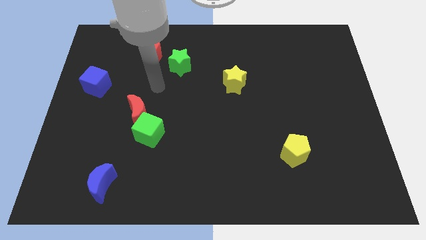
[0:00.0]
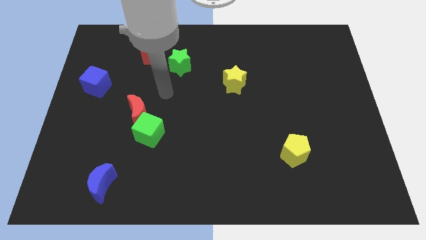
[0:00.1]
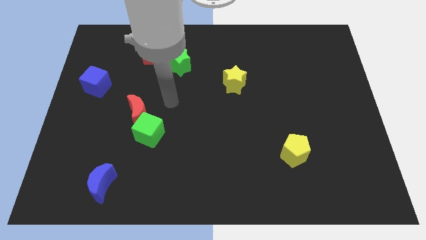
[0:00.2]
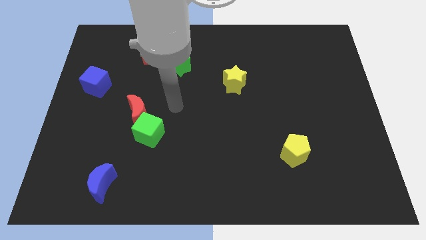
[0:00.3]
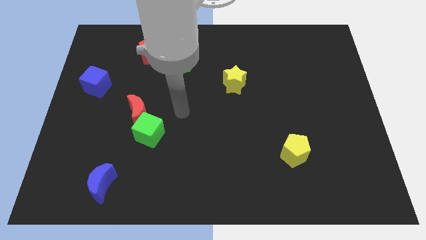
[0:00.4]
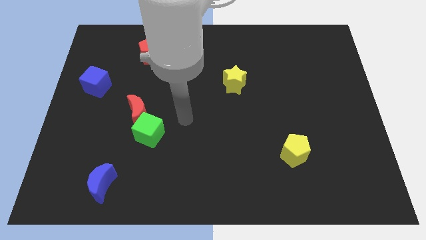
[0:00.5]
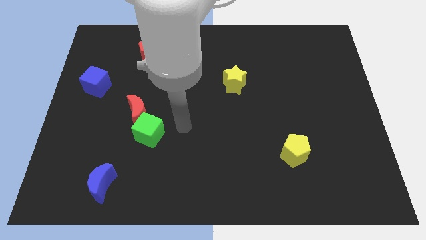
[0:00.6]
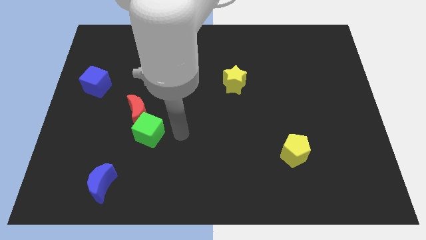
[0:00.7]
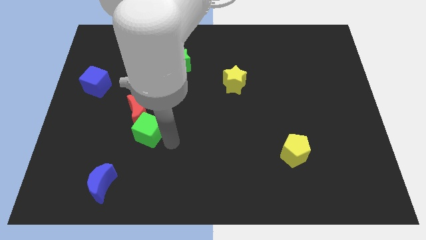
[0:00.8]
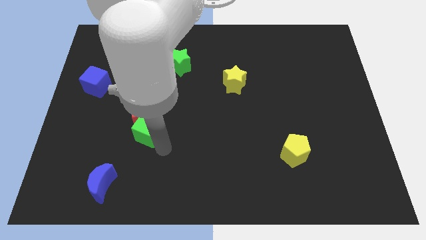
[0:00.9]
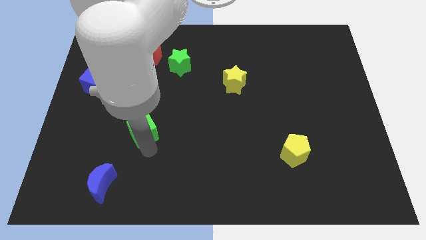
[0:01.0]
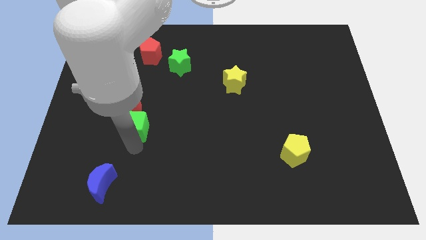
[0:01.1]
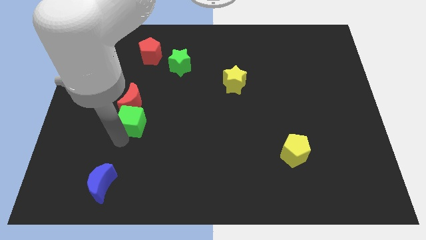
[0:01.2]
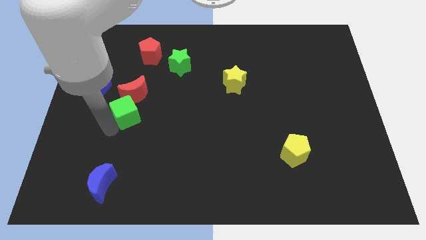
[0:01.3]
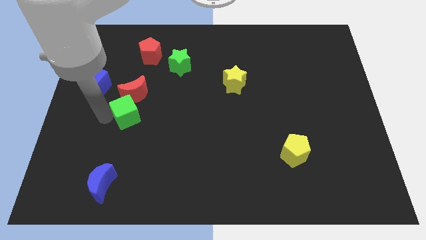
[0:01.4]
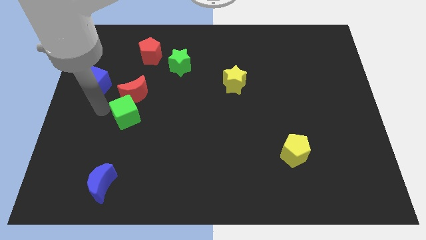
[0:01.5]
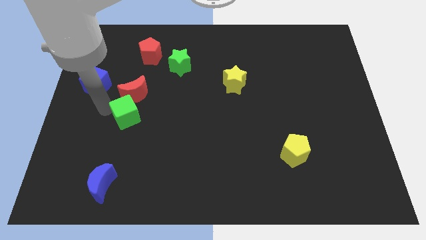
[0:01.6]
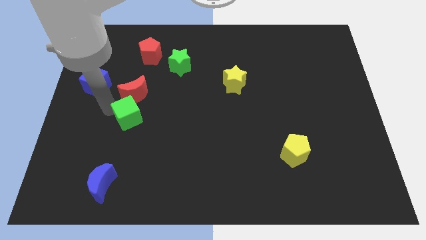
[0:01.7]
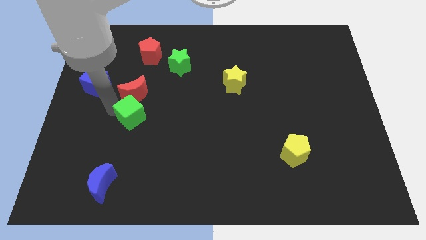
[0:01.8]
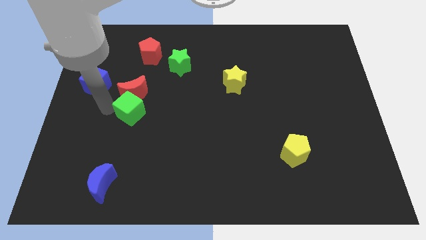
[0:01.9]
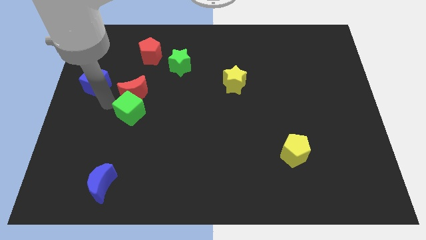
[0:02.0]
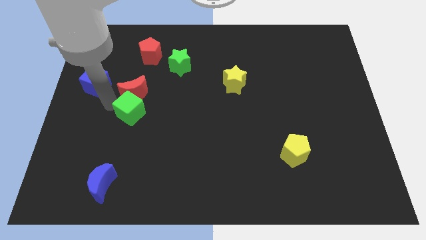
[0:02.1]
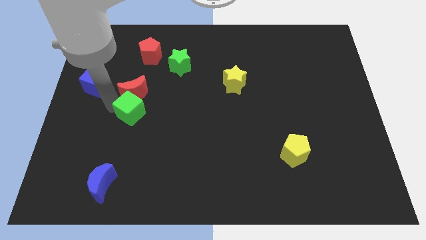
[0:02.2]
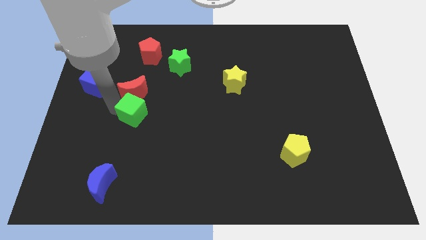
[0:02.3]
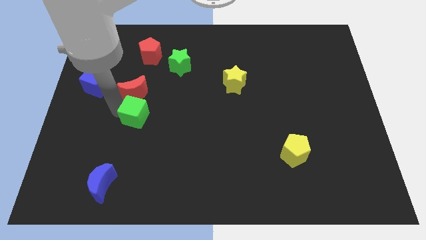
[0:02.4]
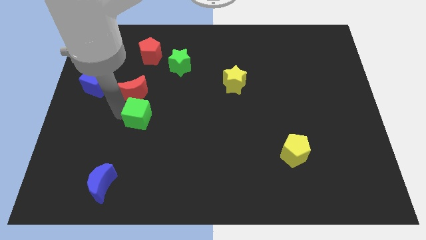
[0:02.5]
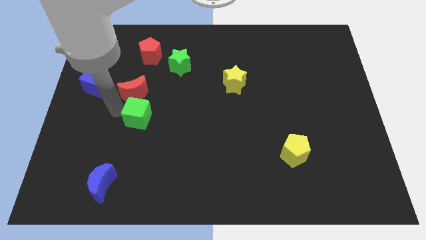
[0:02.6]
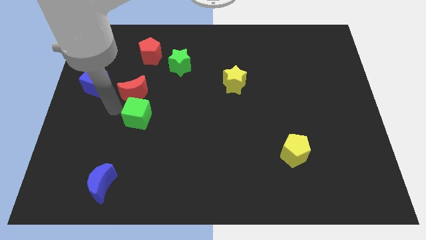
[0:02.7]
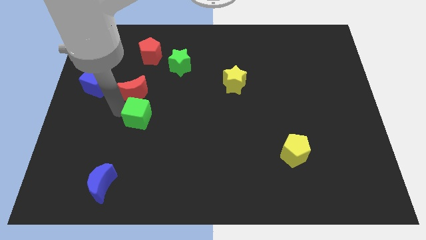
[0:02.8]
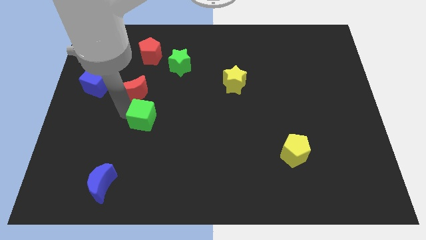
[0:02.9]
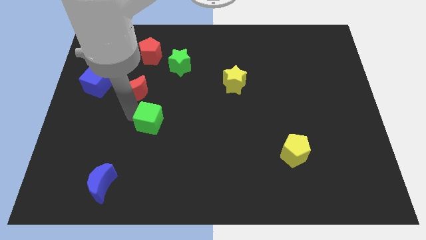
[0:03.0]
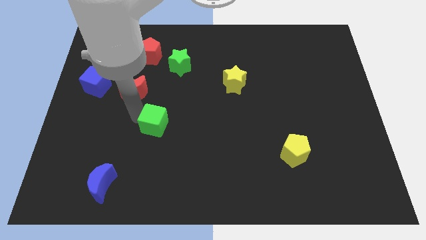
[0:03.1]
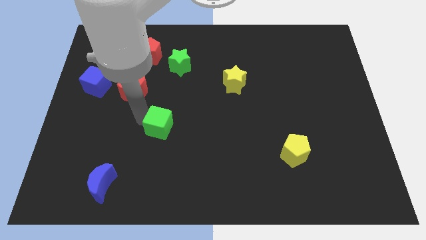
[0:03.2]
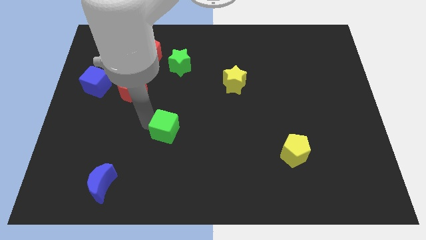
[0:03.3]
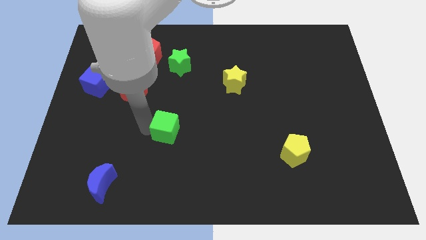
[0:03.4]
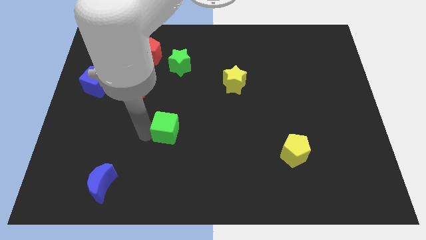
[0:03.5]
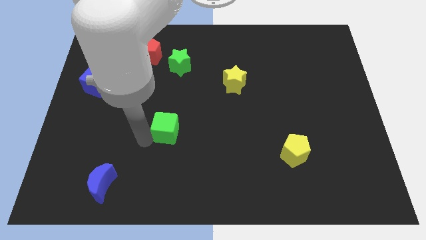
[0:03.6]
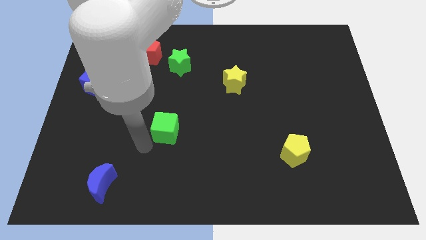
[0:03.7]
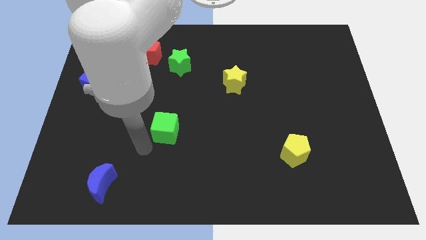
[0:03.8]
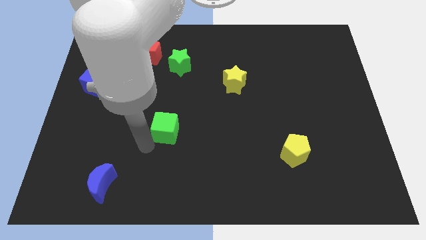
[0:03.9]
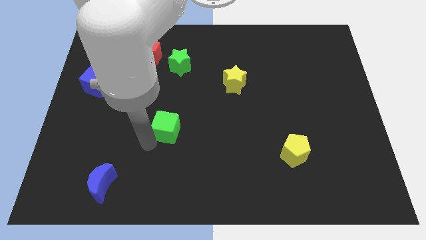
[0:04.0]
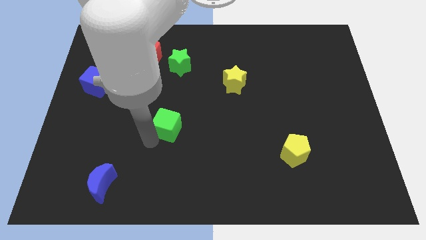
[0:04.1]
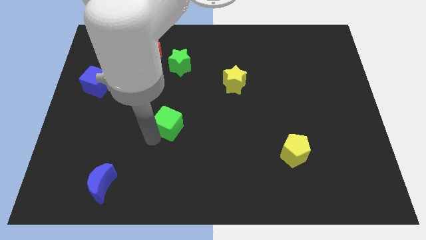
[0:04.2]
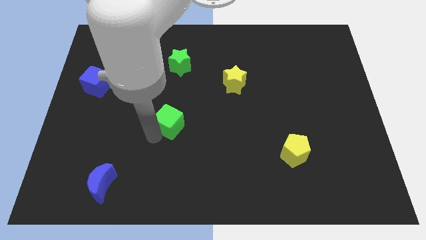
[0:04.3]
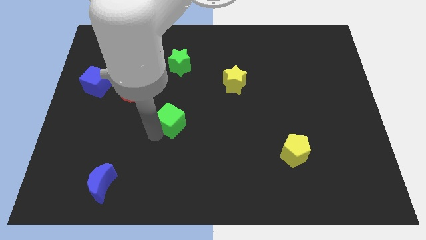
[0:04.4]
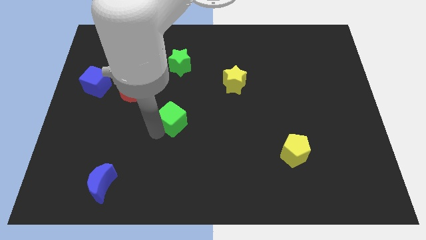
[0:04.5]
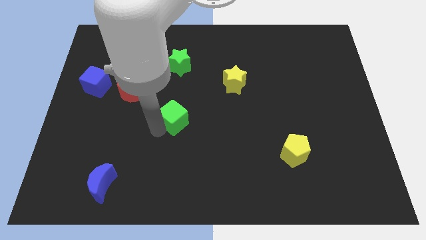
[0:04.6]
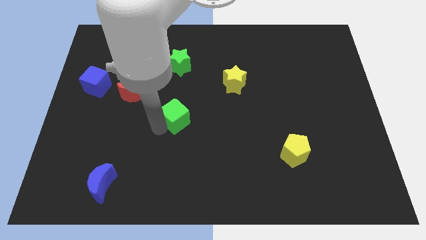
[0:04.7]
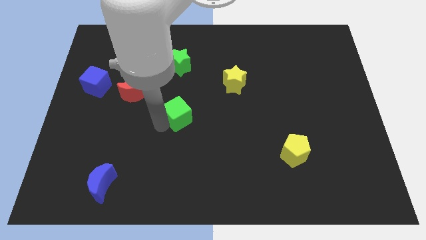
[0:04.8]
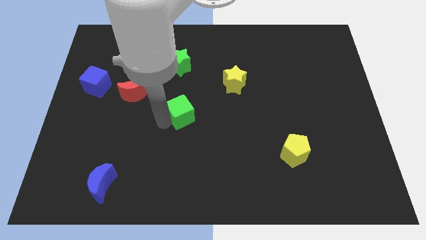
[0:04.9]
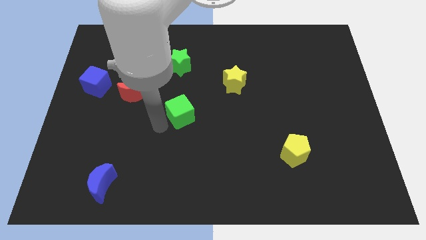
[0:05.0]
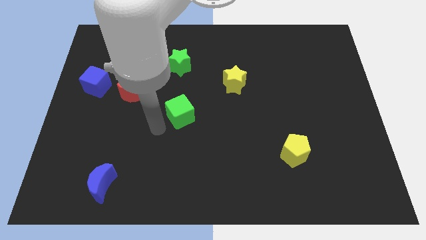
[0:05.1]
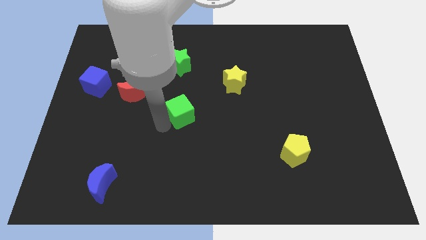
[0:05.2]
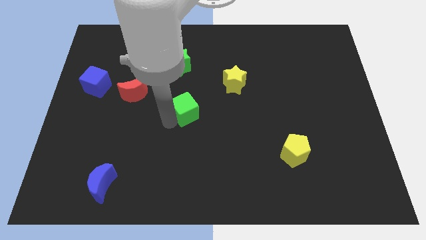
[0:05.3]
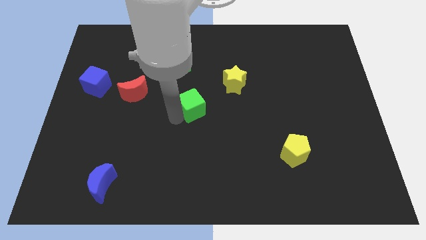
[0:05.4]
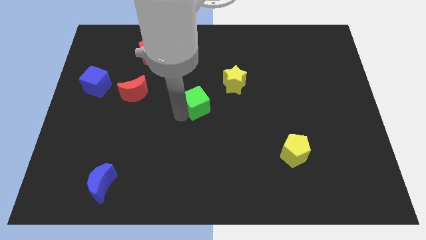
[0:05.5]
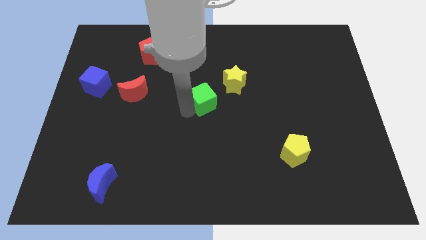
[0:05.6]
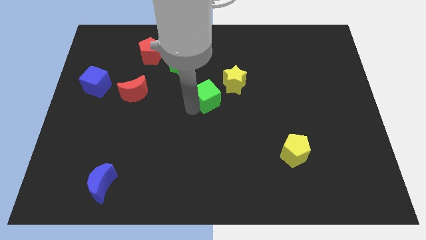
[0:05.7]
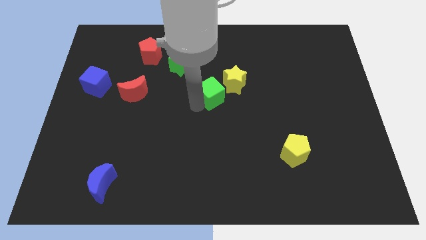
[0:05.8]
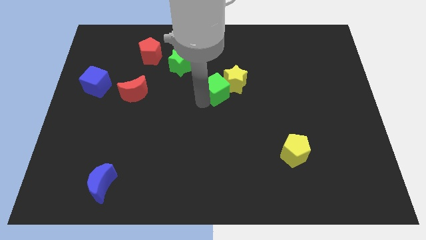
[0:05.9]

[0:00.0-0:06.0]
slide the green cube towards the yellow star

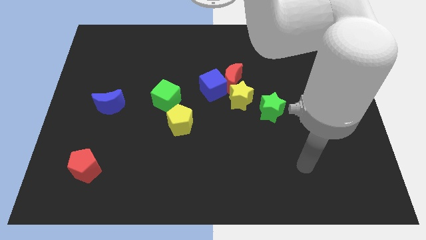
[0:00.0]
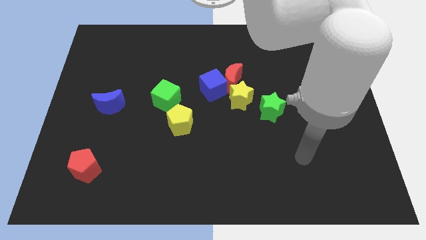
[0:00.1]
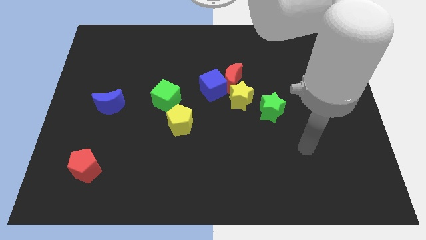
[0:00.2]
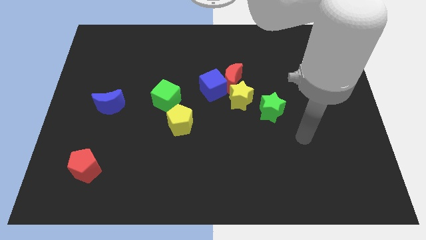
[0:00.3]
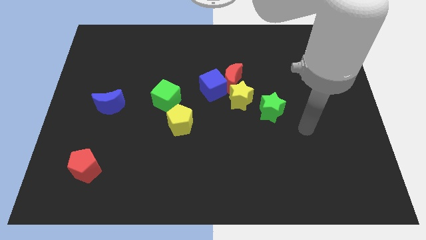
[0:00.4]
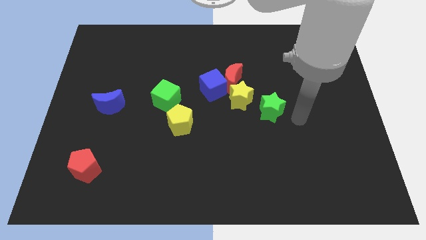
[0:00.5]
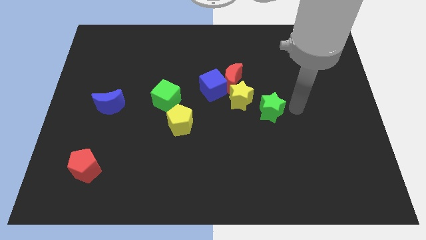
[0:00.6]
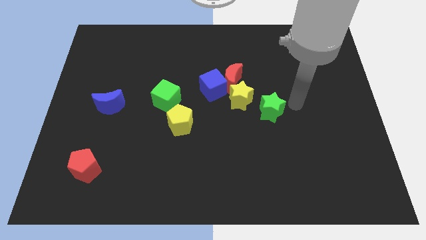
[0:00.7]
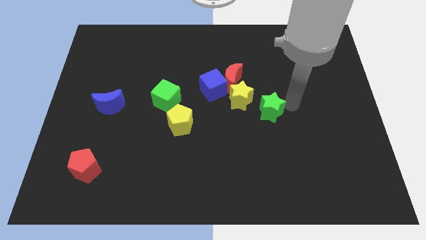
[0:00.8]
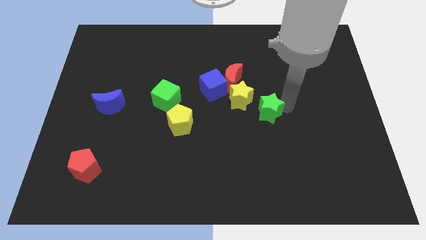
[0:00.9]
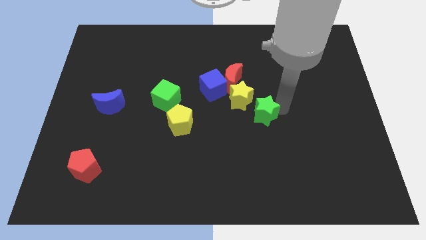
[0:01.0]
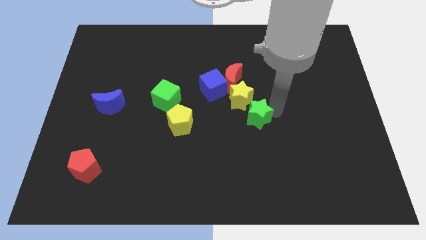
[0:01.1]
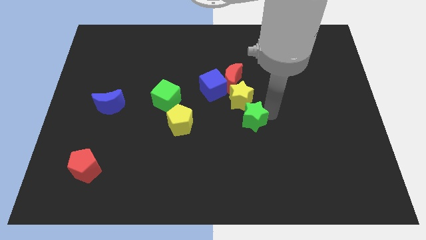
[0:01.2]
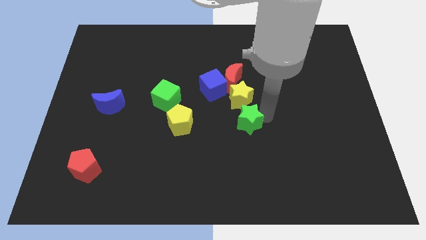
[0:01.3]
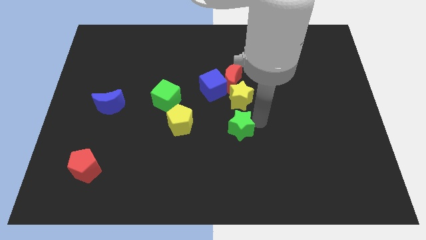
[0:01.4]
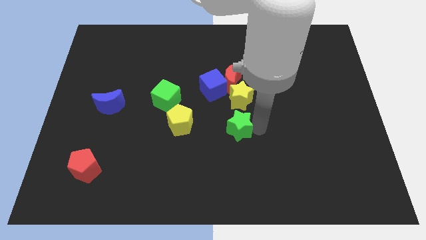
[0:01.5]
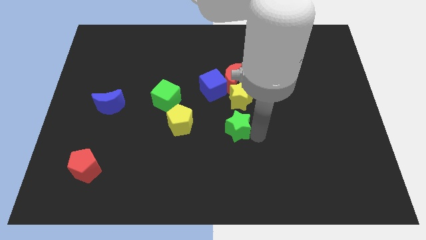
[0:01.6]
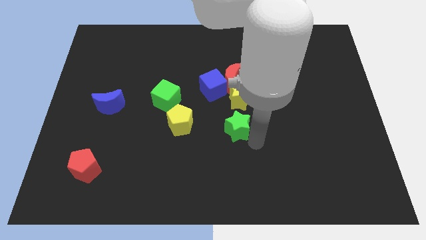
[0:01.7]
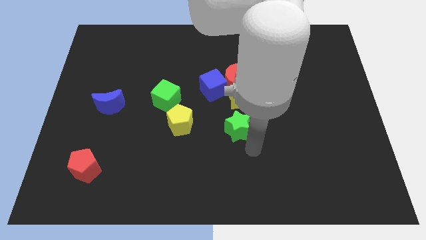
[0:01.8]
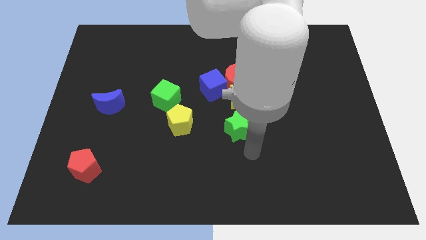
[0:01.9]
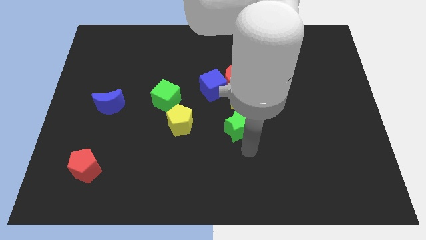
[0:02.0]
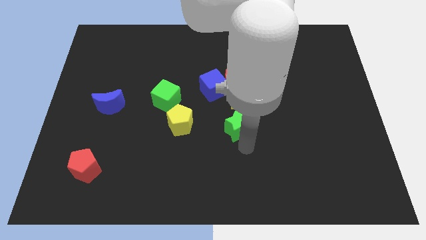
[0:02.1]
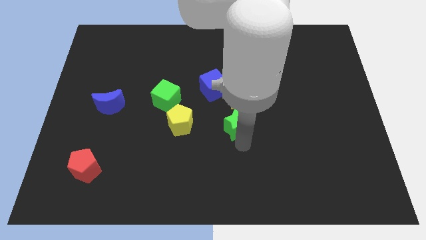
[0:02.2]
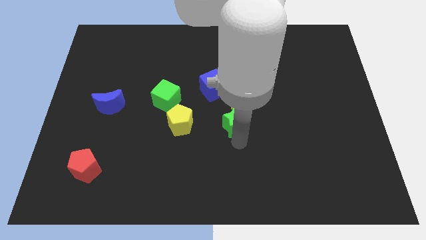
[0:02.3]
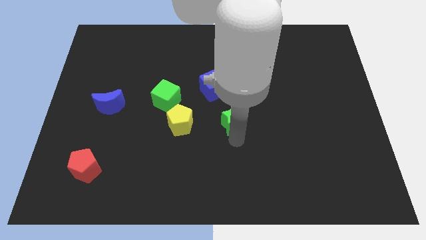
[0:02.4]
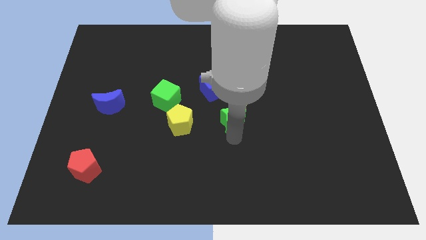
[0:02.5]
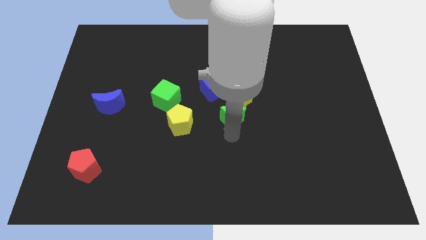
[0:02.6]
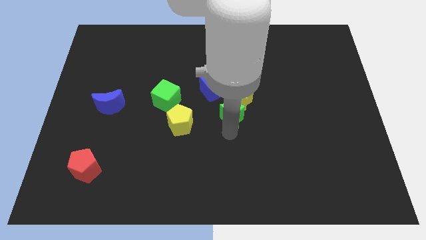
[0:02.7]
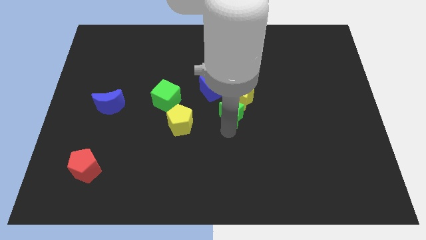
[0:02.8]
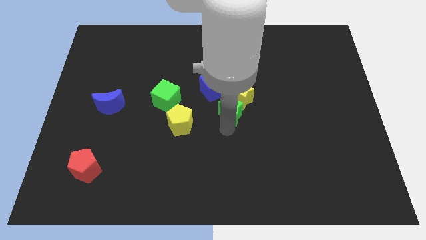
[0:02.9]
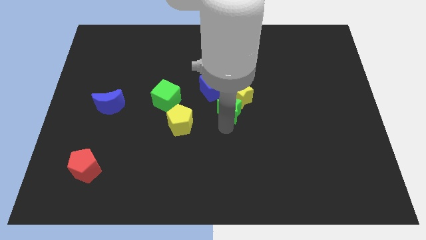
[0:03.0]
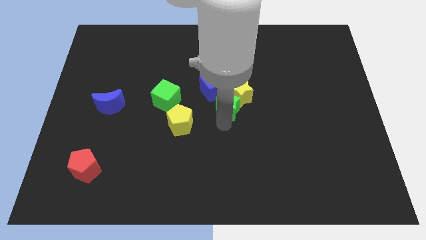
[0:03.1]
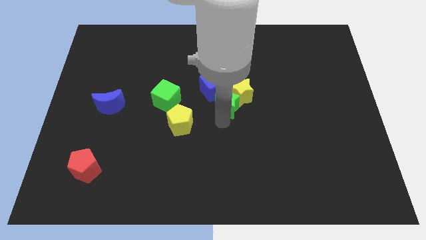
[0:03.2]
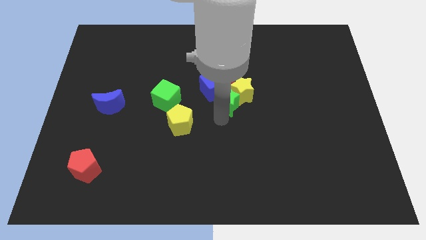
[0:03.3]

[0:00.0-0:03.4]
push the green star close to the blue cube
